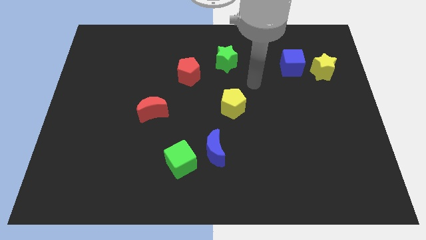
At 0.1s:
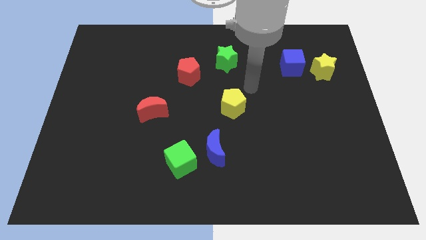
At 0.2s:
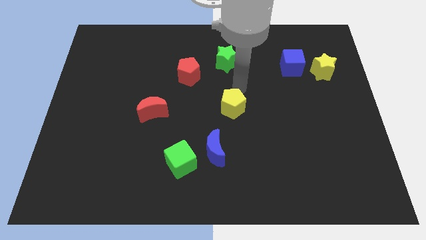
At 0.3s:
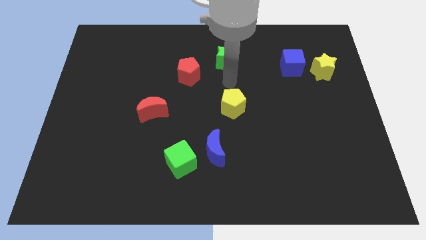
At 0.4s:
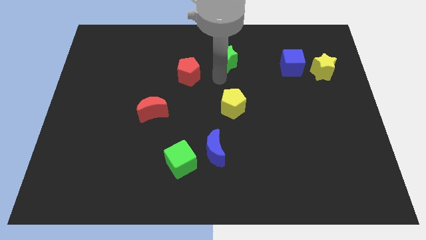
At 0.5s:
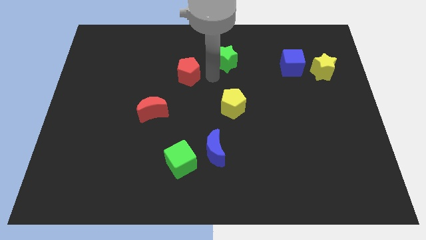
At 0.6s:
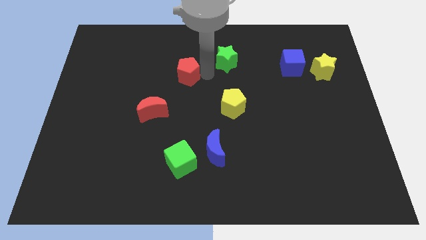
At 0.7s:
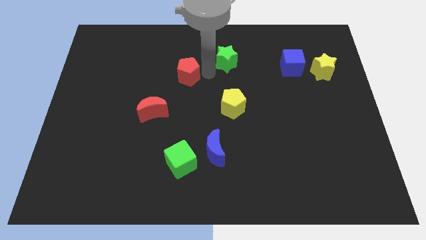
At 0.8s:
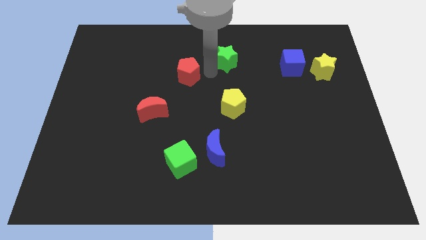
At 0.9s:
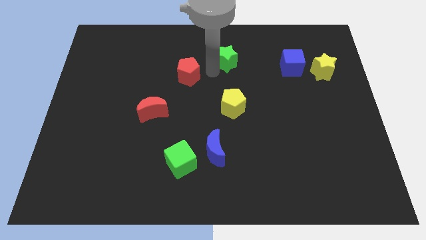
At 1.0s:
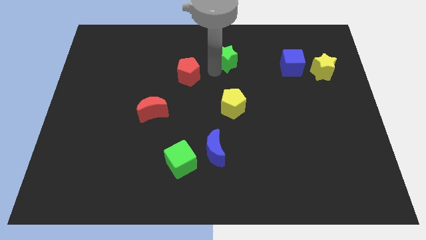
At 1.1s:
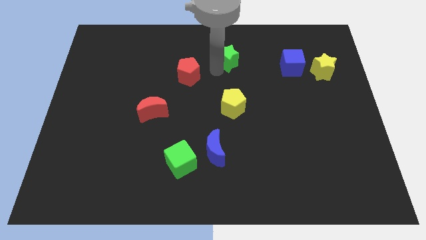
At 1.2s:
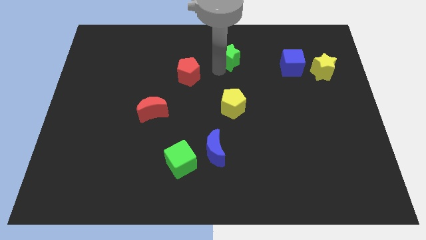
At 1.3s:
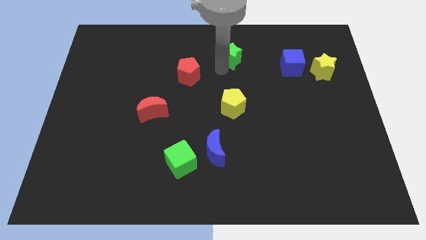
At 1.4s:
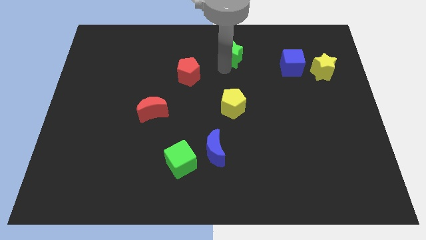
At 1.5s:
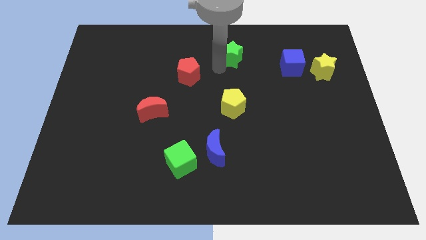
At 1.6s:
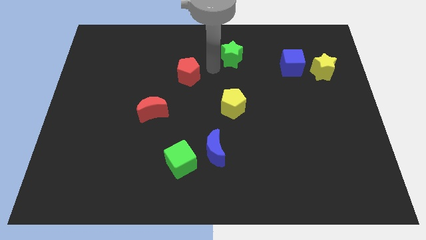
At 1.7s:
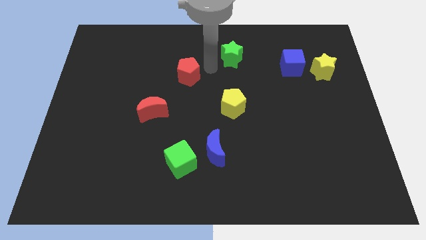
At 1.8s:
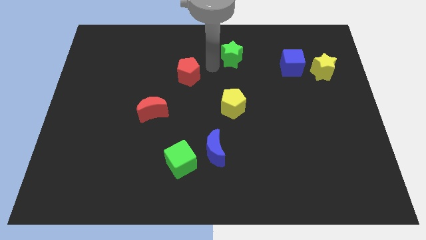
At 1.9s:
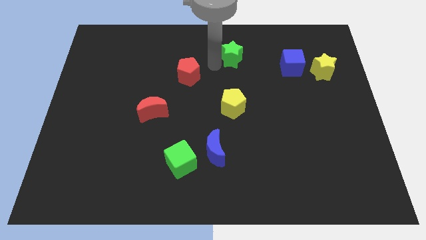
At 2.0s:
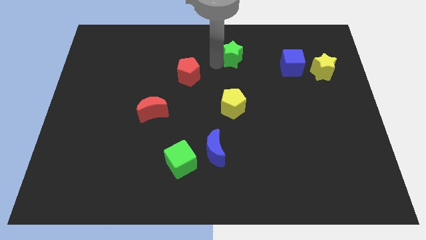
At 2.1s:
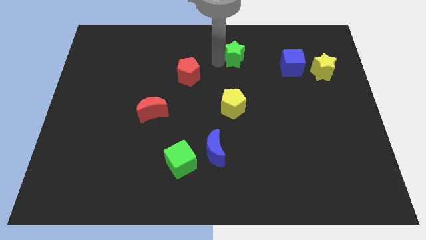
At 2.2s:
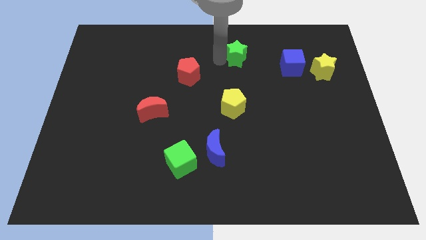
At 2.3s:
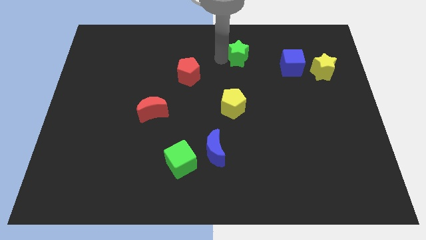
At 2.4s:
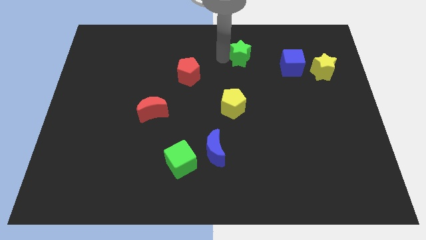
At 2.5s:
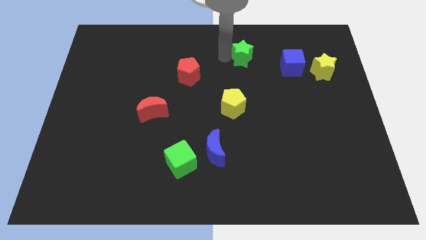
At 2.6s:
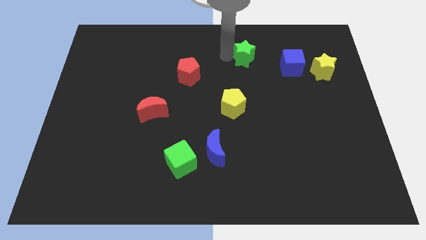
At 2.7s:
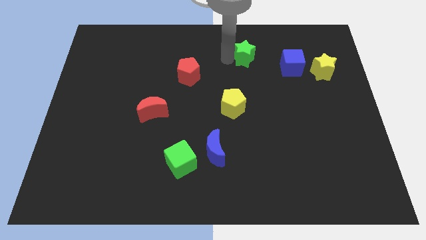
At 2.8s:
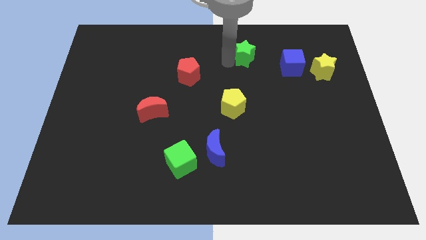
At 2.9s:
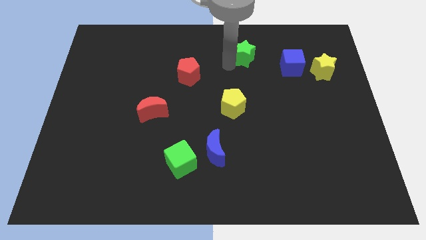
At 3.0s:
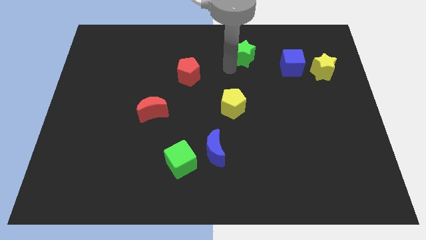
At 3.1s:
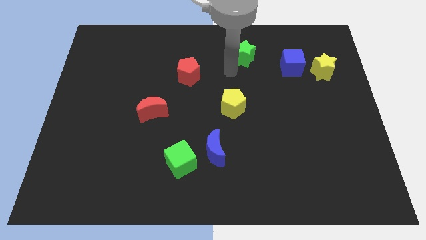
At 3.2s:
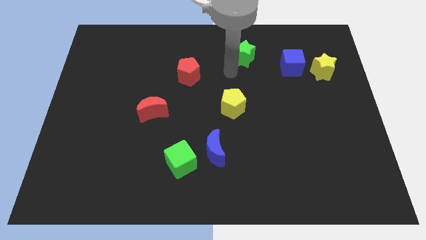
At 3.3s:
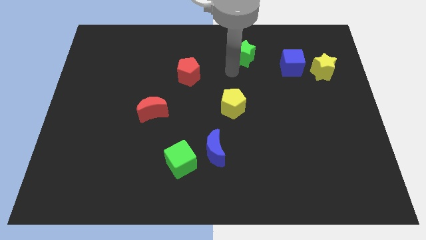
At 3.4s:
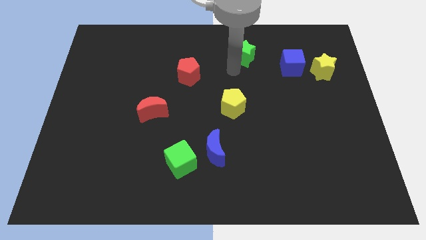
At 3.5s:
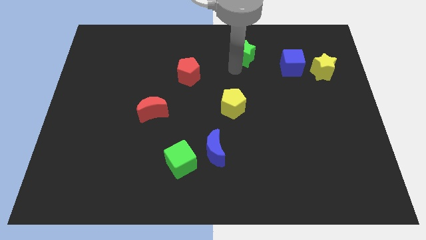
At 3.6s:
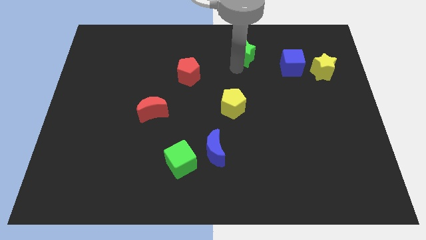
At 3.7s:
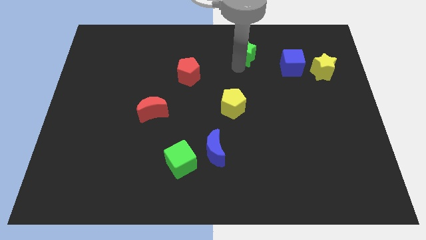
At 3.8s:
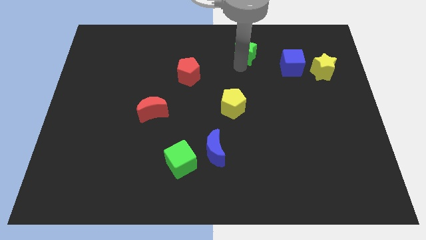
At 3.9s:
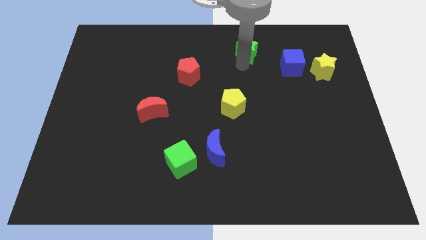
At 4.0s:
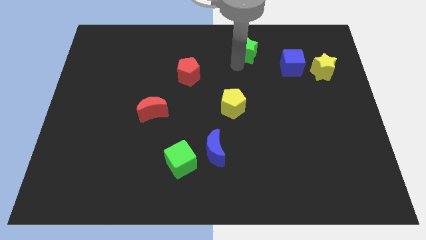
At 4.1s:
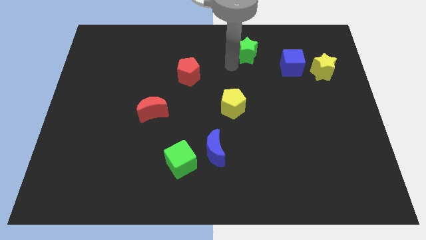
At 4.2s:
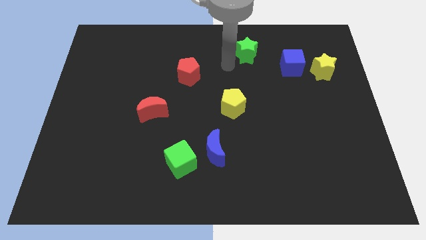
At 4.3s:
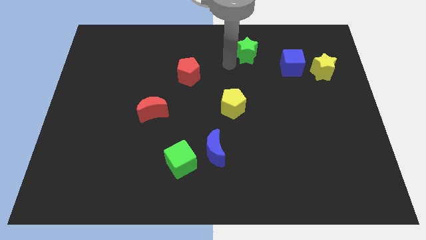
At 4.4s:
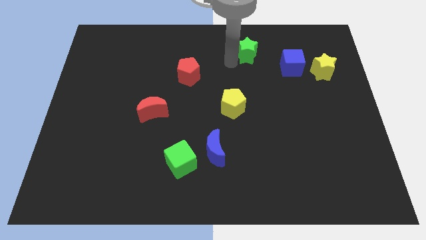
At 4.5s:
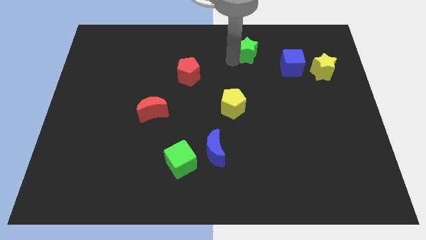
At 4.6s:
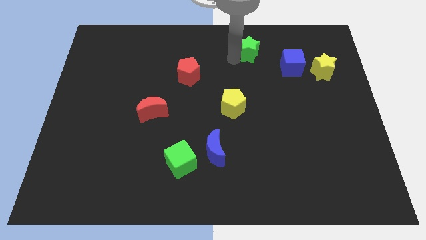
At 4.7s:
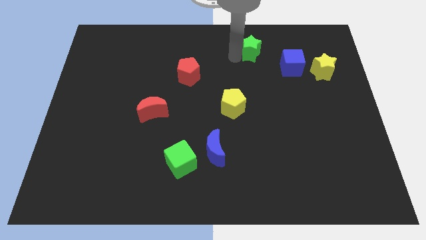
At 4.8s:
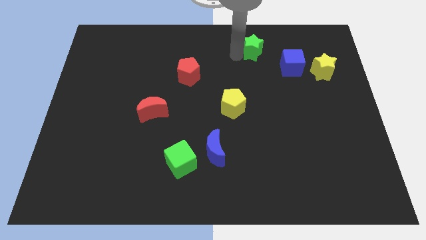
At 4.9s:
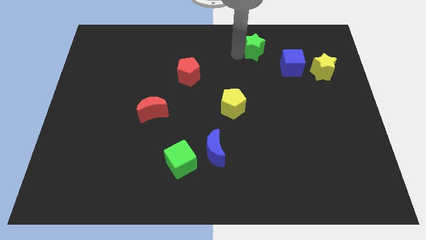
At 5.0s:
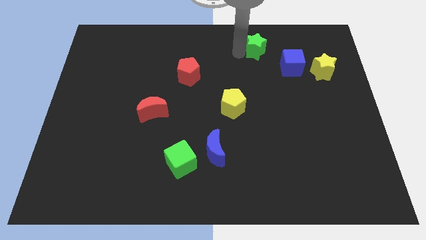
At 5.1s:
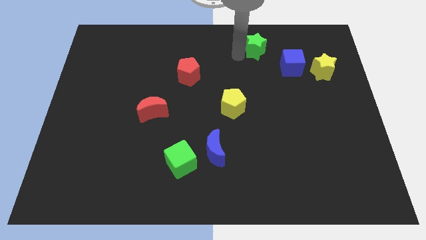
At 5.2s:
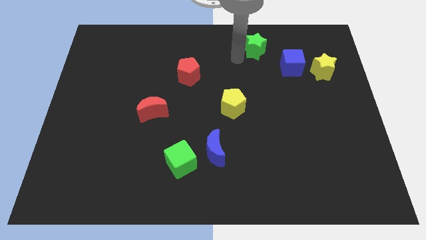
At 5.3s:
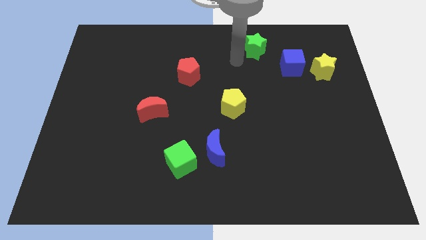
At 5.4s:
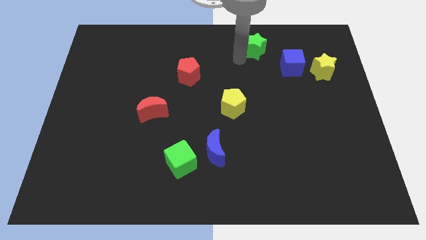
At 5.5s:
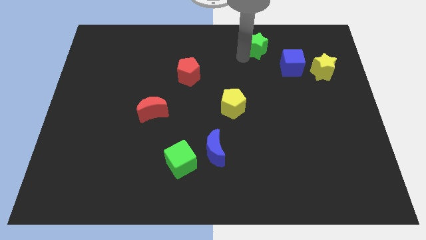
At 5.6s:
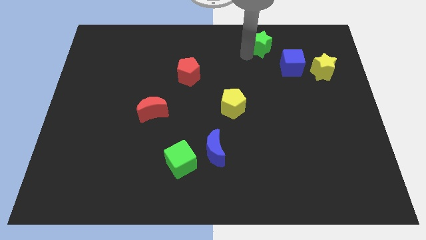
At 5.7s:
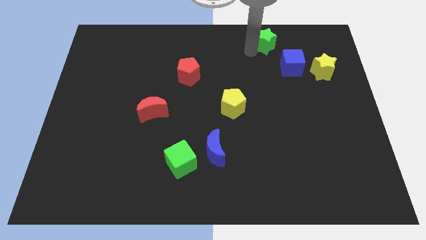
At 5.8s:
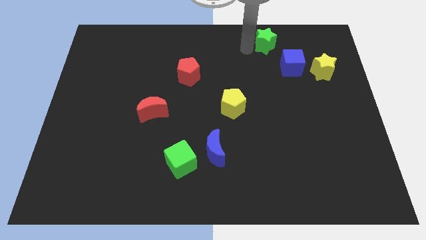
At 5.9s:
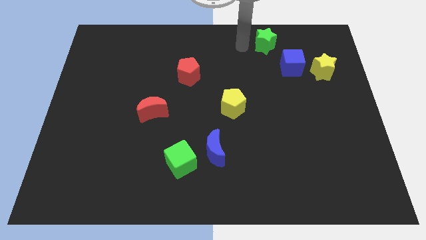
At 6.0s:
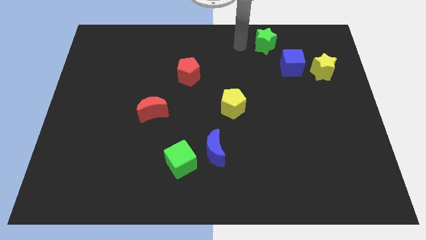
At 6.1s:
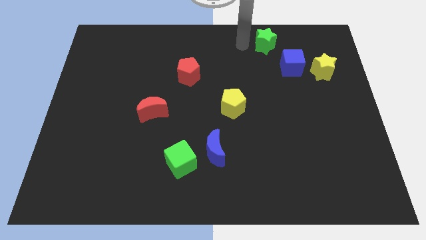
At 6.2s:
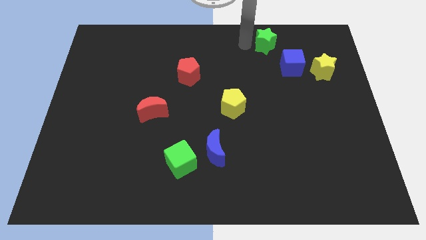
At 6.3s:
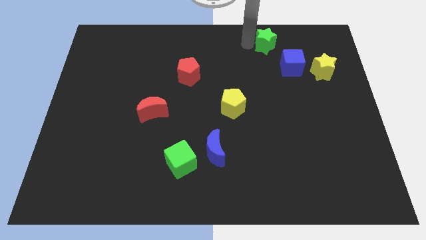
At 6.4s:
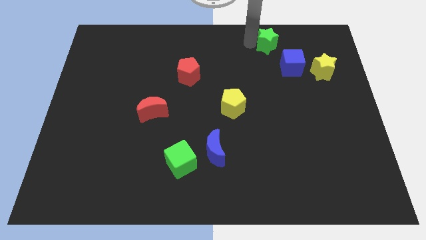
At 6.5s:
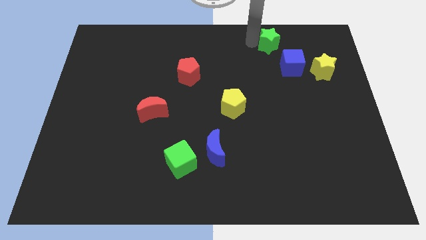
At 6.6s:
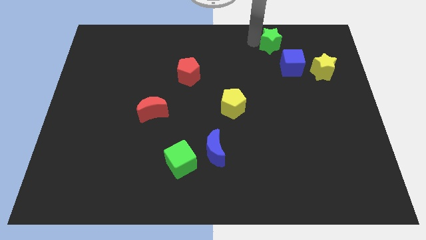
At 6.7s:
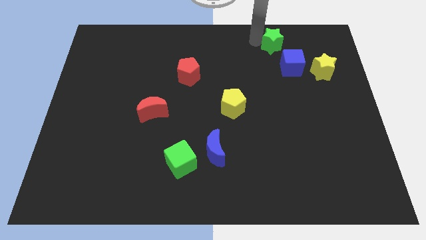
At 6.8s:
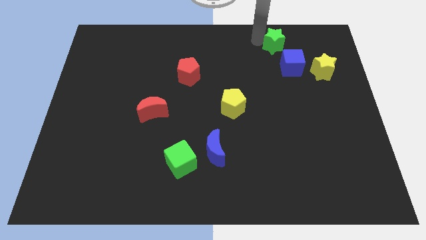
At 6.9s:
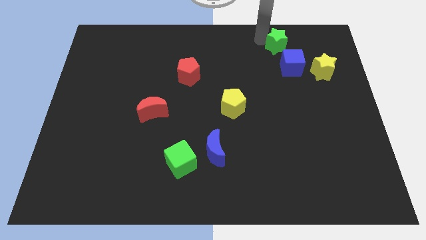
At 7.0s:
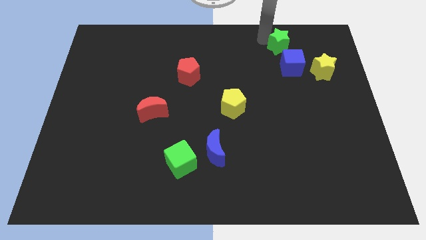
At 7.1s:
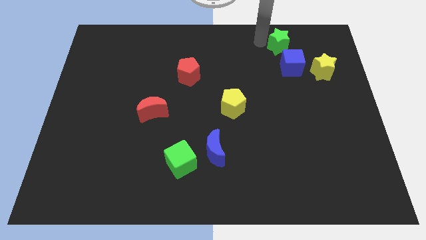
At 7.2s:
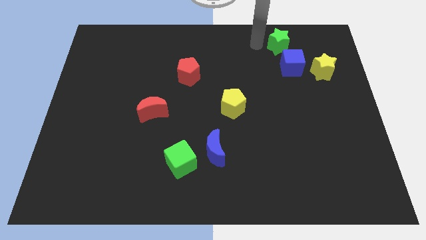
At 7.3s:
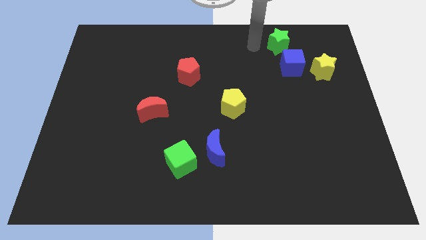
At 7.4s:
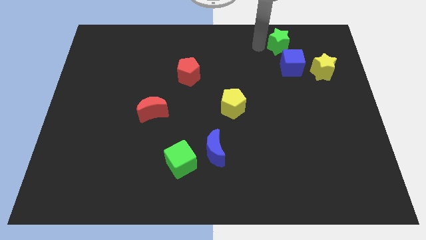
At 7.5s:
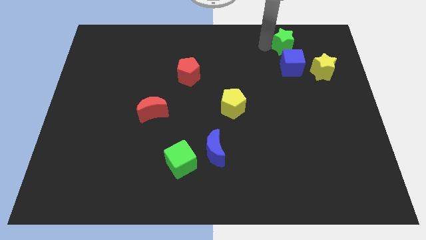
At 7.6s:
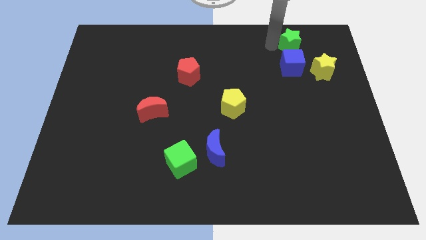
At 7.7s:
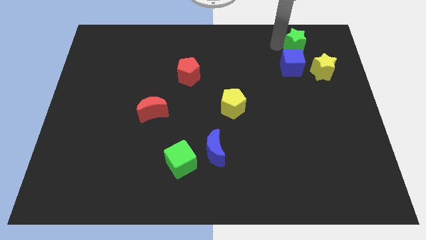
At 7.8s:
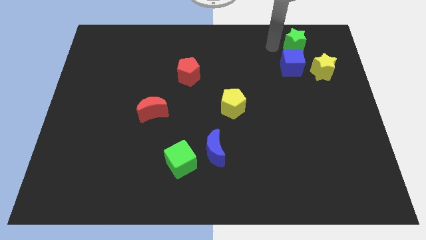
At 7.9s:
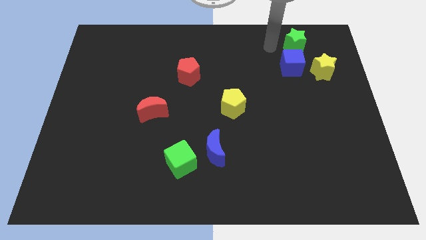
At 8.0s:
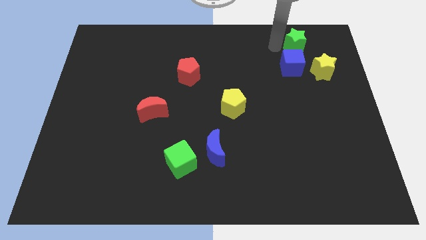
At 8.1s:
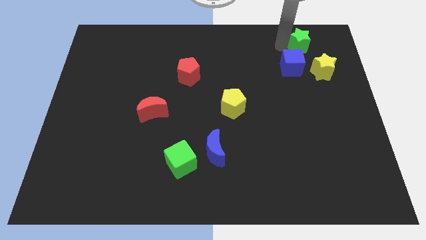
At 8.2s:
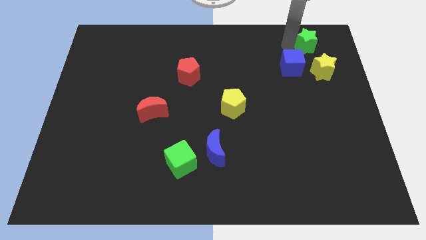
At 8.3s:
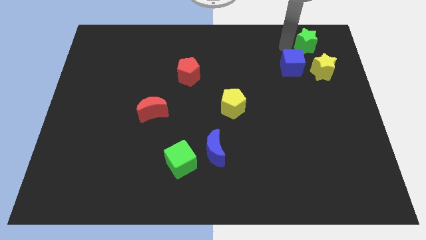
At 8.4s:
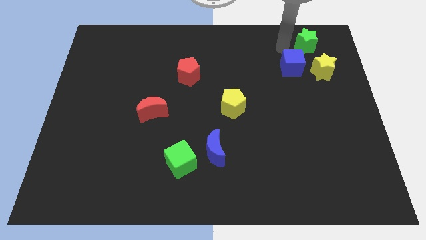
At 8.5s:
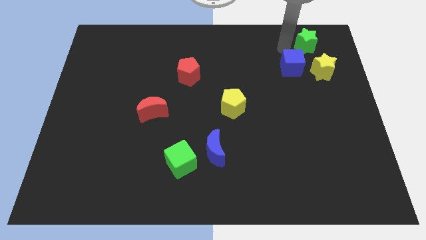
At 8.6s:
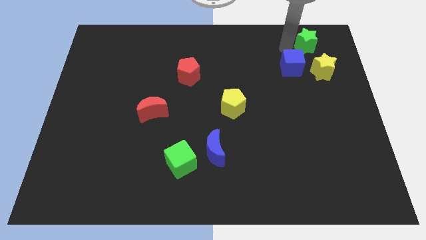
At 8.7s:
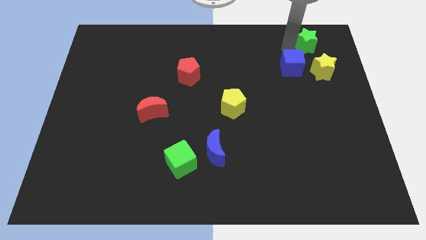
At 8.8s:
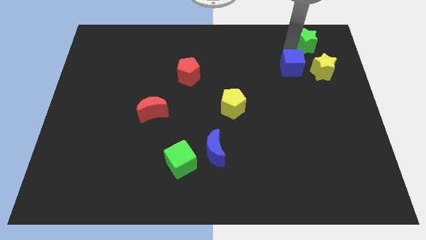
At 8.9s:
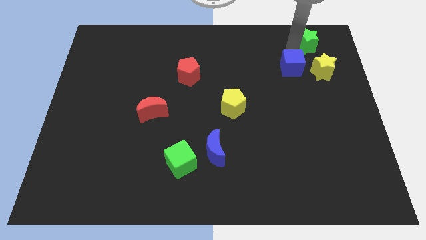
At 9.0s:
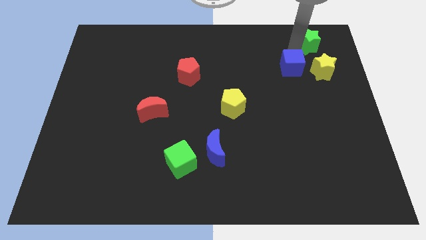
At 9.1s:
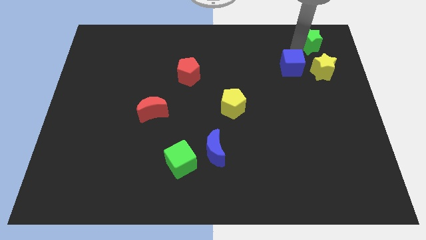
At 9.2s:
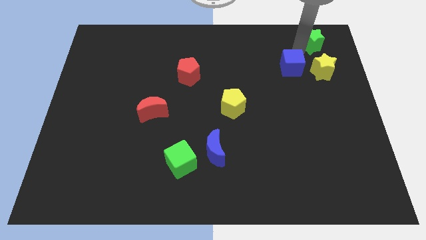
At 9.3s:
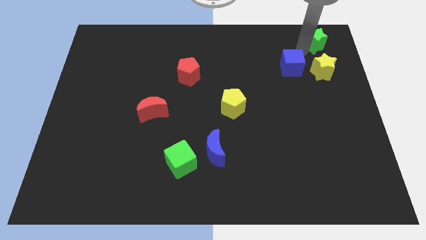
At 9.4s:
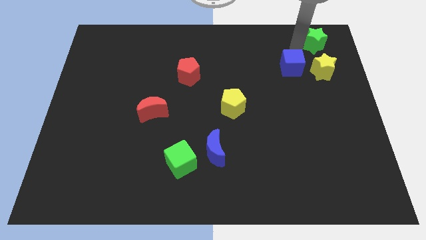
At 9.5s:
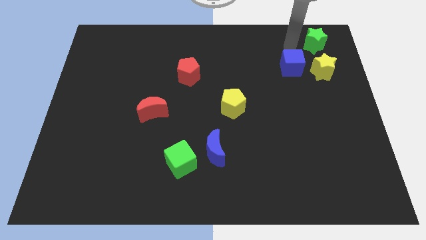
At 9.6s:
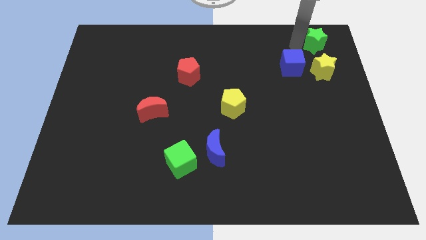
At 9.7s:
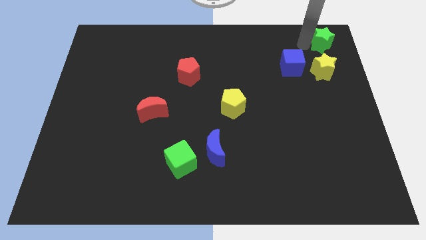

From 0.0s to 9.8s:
slide the green star to the top right
